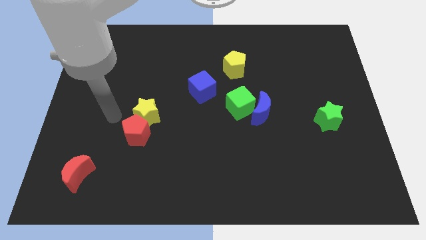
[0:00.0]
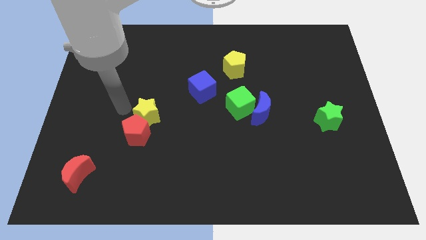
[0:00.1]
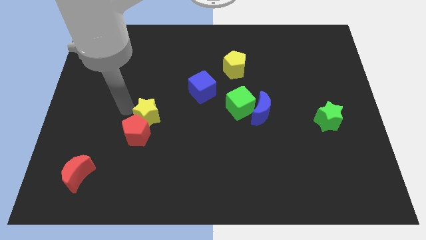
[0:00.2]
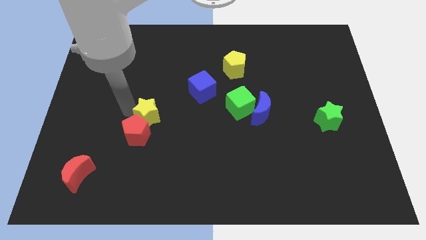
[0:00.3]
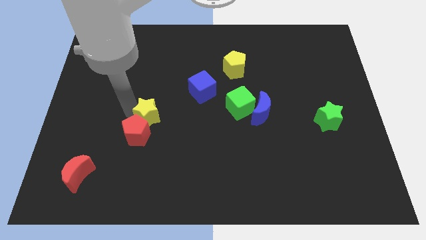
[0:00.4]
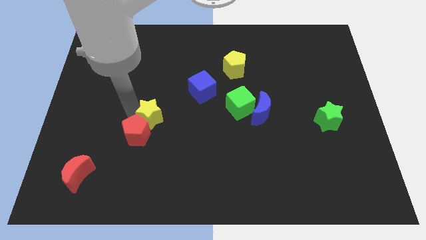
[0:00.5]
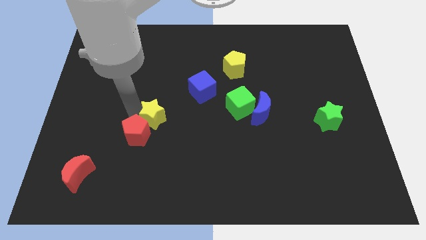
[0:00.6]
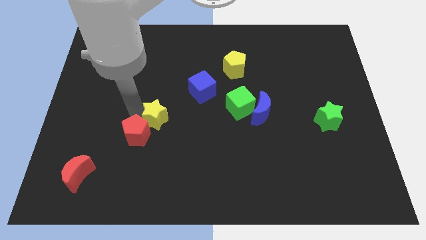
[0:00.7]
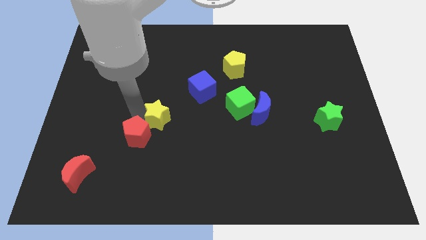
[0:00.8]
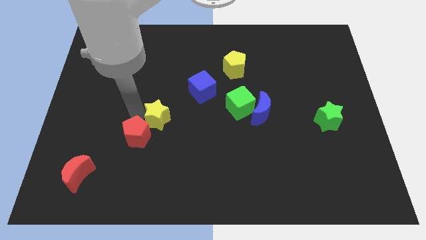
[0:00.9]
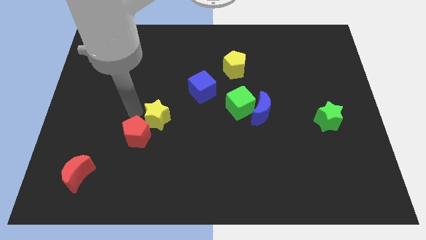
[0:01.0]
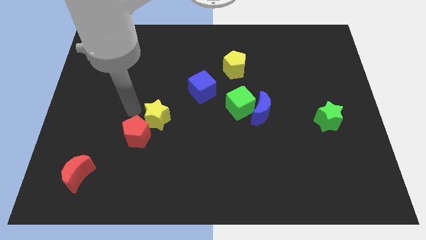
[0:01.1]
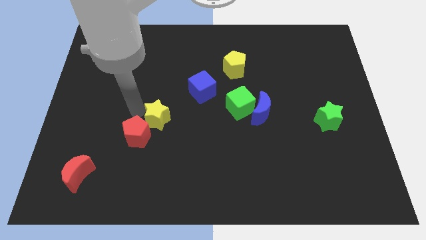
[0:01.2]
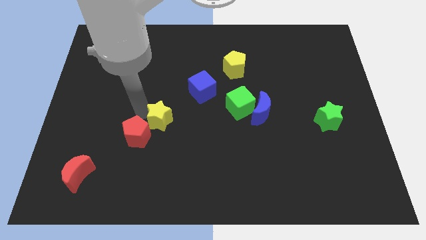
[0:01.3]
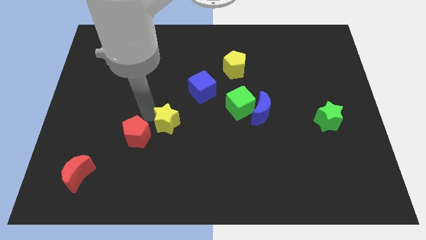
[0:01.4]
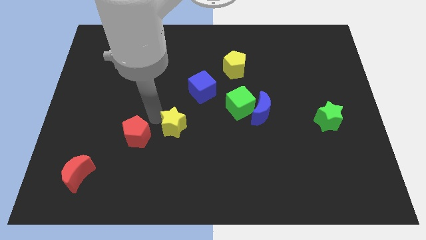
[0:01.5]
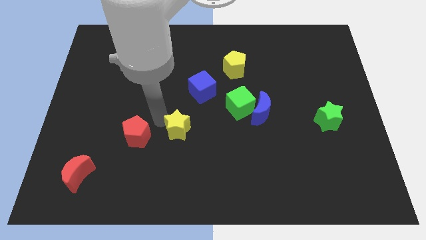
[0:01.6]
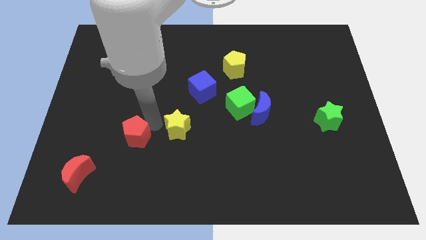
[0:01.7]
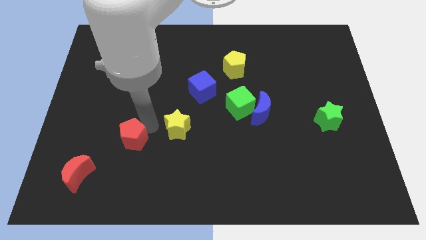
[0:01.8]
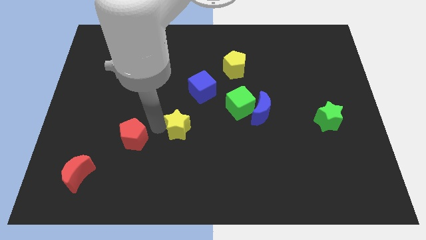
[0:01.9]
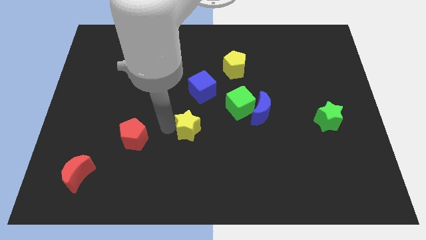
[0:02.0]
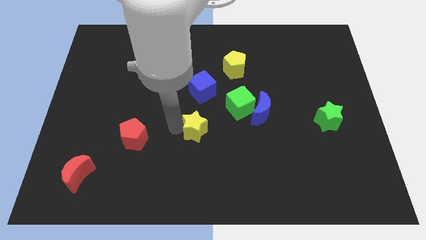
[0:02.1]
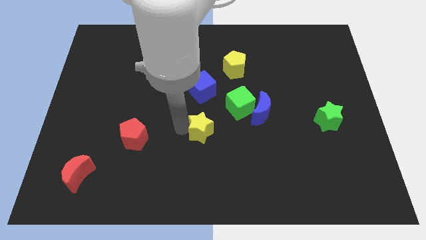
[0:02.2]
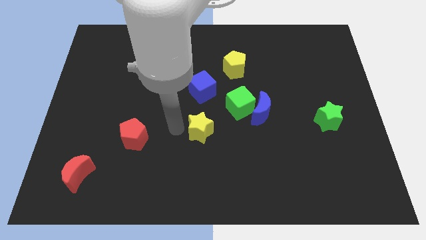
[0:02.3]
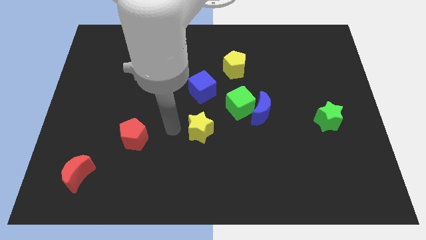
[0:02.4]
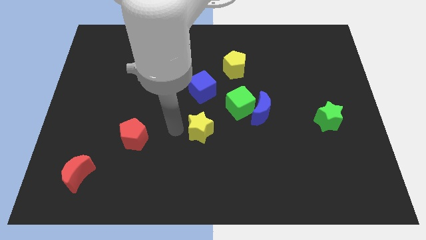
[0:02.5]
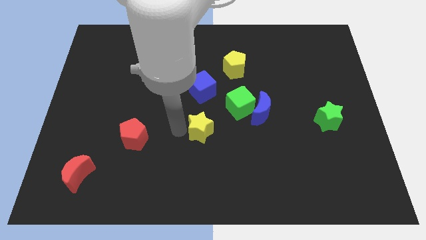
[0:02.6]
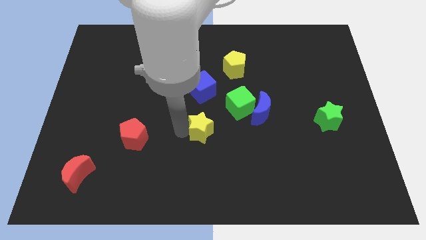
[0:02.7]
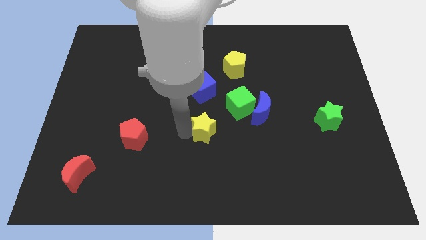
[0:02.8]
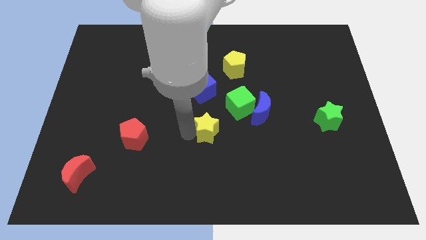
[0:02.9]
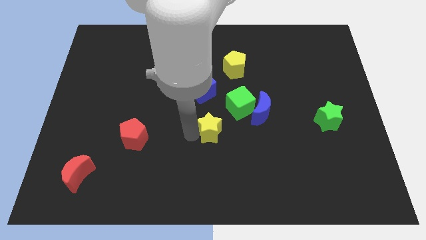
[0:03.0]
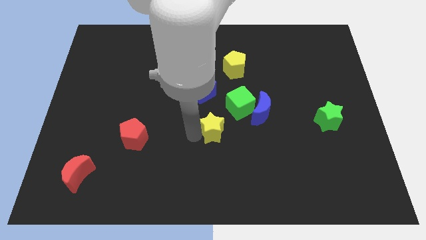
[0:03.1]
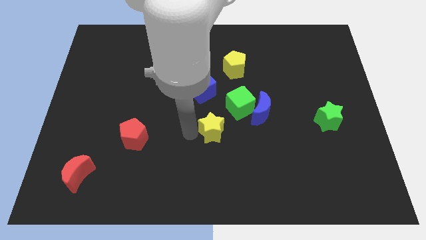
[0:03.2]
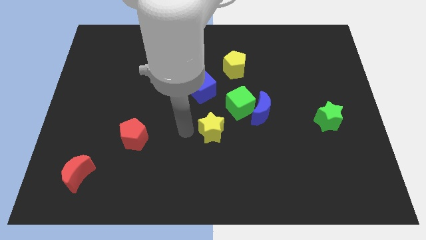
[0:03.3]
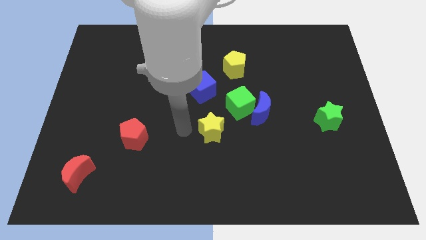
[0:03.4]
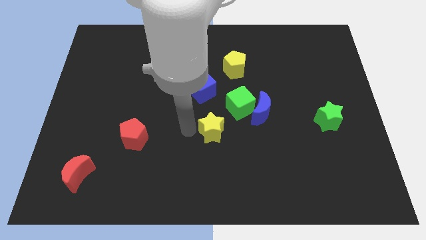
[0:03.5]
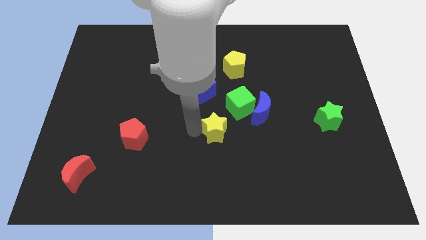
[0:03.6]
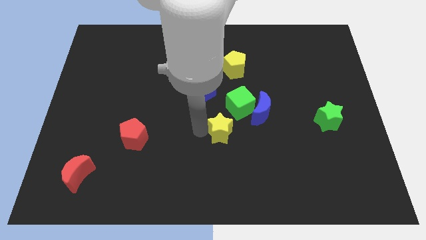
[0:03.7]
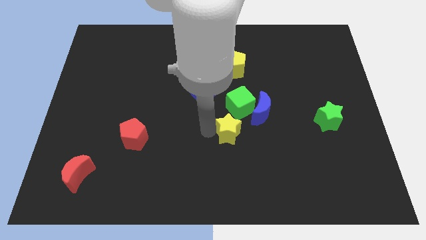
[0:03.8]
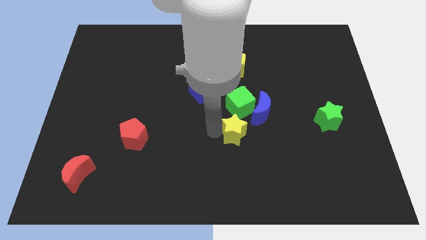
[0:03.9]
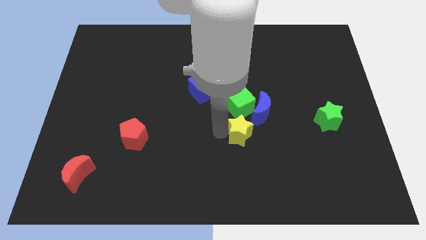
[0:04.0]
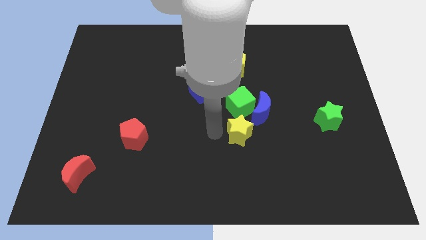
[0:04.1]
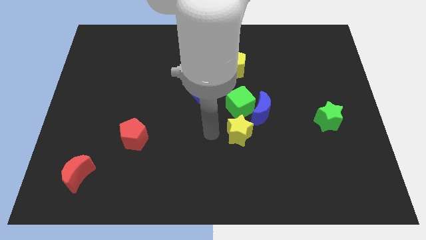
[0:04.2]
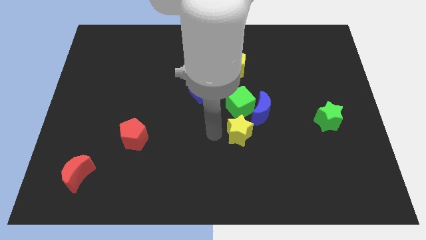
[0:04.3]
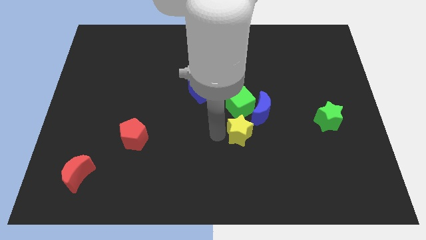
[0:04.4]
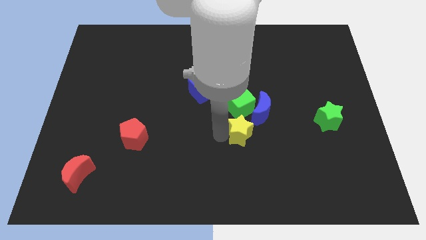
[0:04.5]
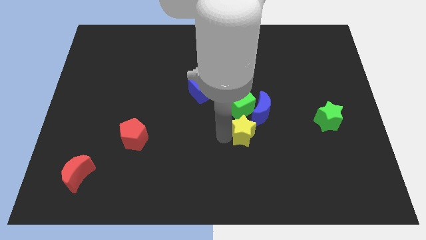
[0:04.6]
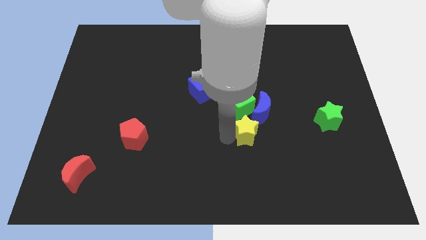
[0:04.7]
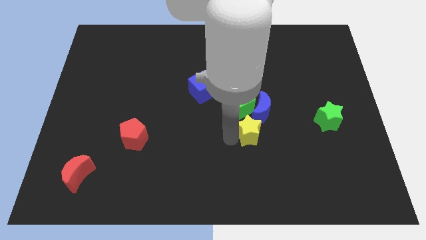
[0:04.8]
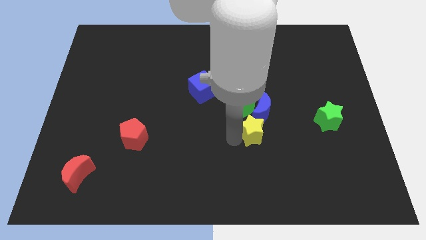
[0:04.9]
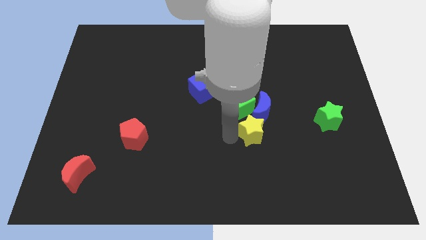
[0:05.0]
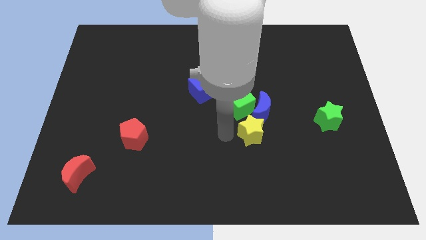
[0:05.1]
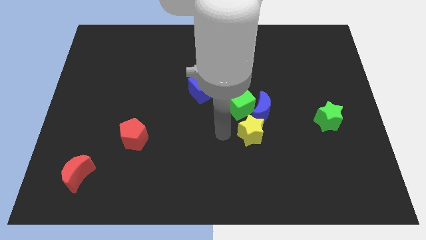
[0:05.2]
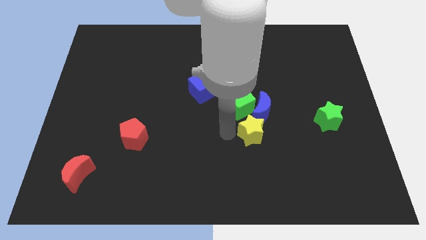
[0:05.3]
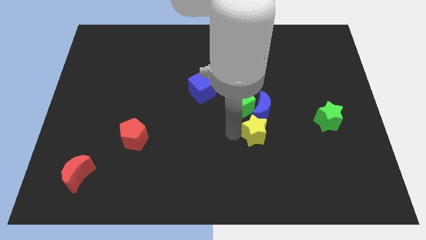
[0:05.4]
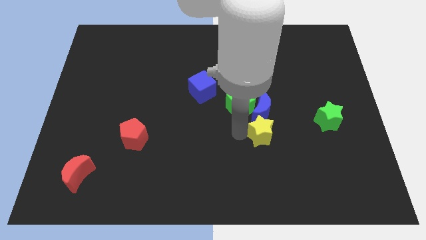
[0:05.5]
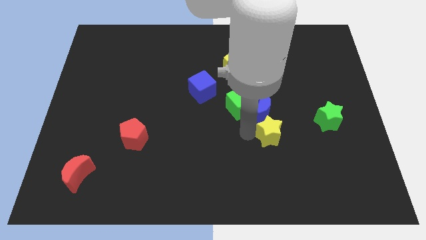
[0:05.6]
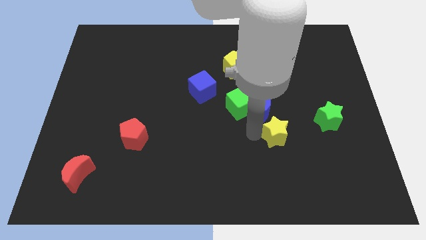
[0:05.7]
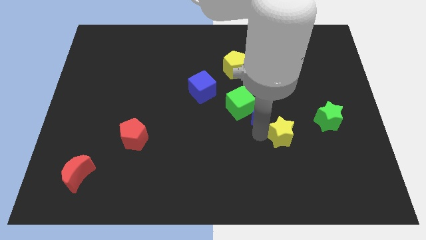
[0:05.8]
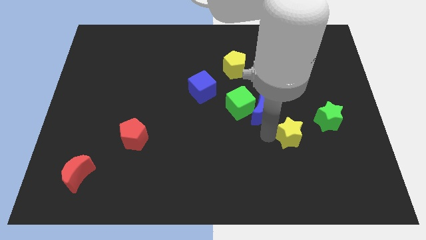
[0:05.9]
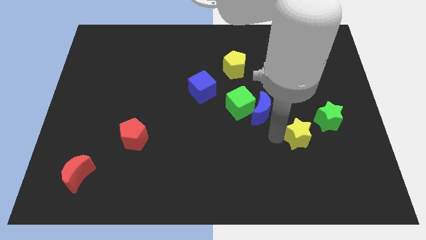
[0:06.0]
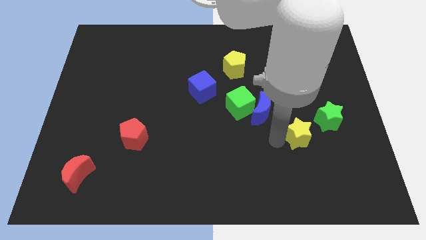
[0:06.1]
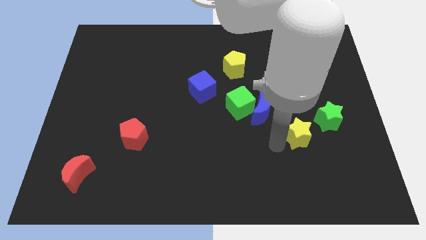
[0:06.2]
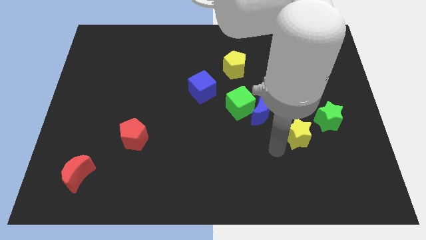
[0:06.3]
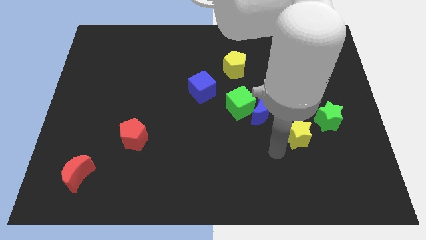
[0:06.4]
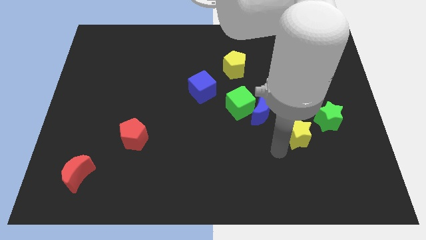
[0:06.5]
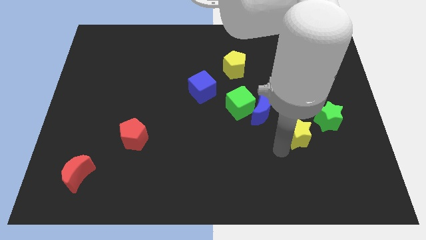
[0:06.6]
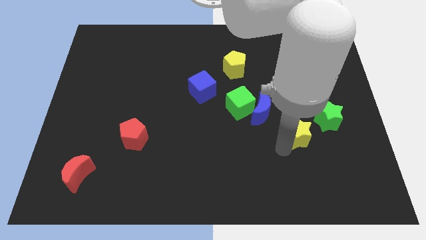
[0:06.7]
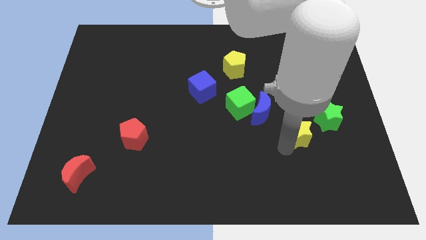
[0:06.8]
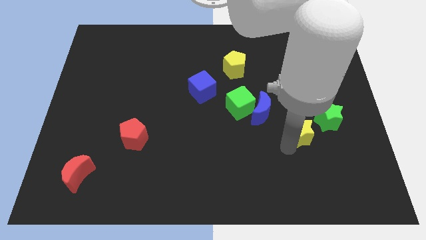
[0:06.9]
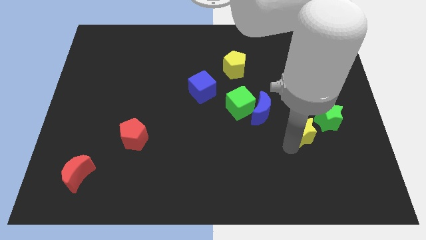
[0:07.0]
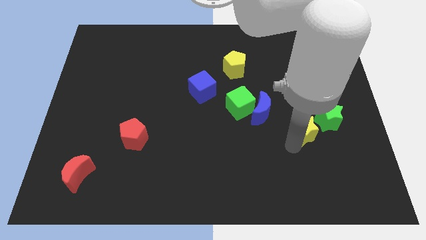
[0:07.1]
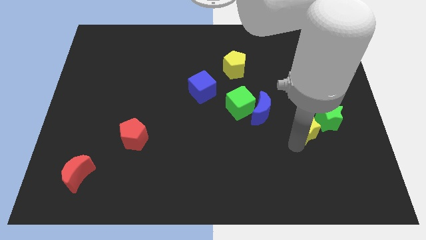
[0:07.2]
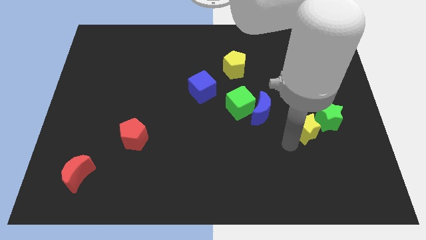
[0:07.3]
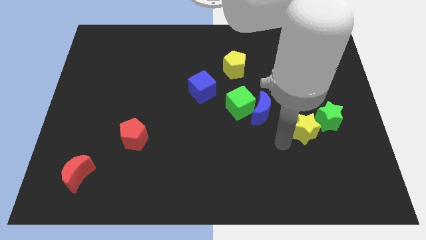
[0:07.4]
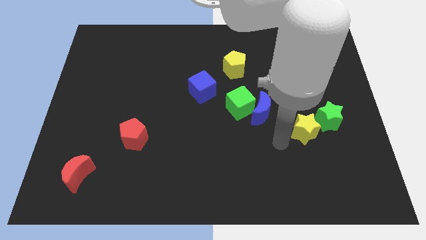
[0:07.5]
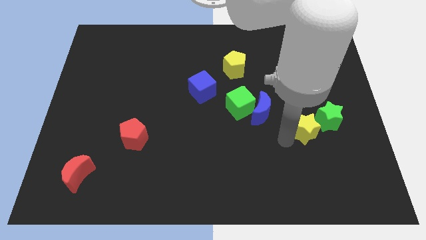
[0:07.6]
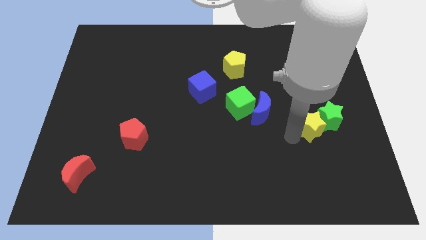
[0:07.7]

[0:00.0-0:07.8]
put the yellow star close to the green star
